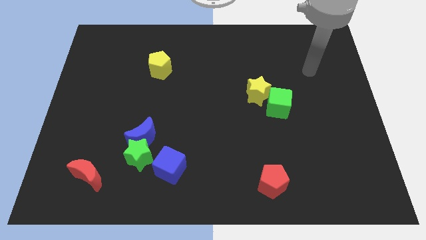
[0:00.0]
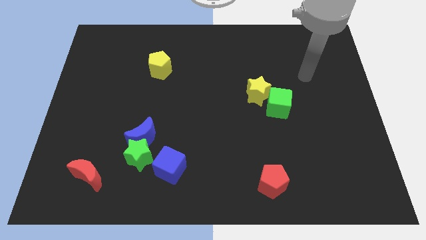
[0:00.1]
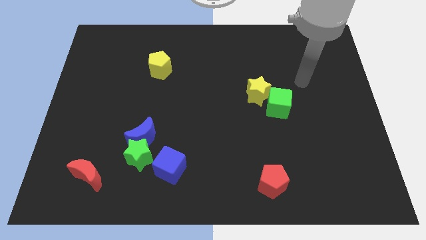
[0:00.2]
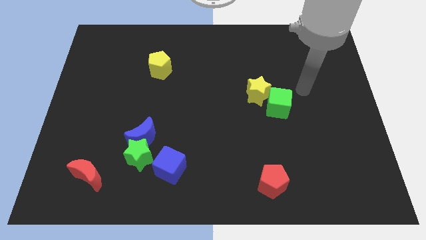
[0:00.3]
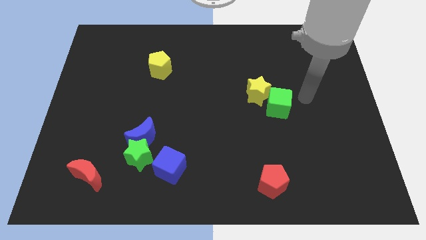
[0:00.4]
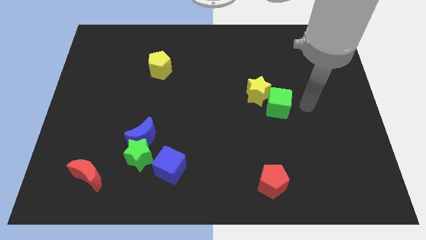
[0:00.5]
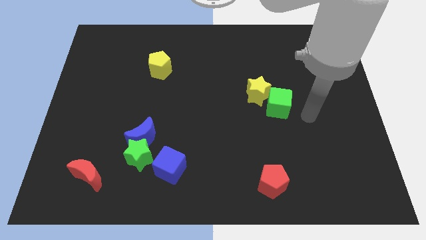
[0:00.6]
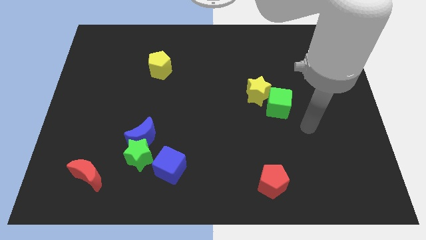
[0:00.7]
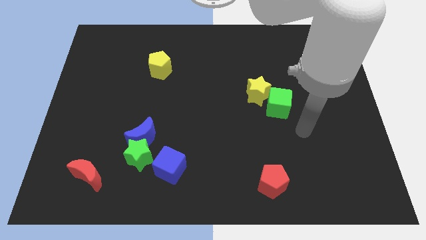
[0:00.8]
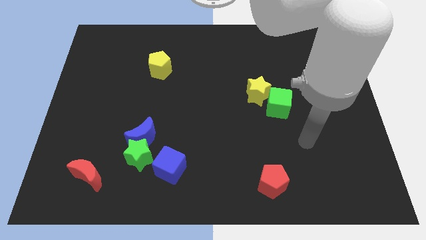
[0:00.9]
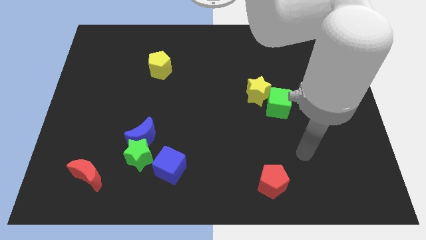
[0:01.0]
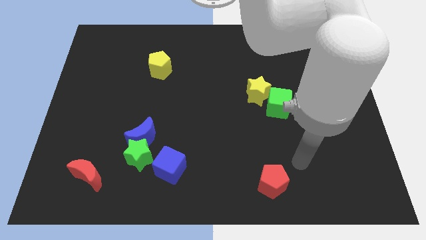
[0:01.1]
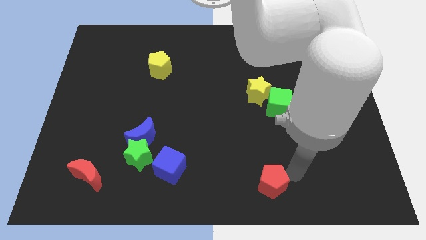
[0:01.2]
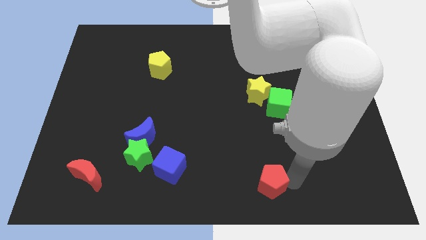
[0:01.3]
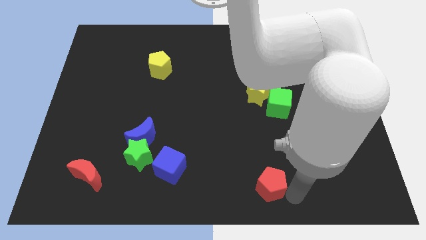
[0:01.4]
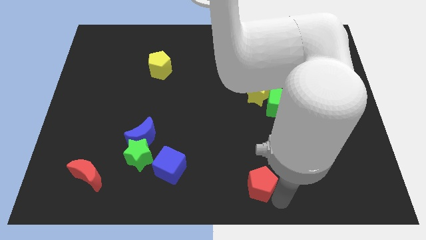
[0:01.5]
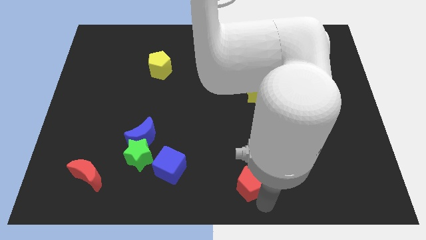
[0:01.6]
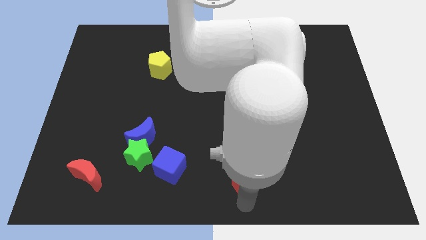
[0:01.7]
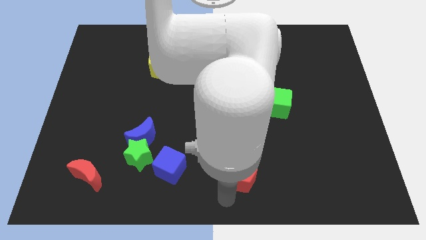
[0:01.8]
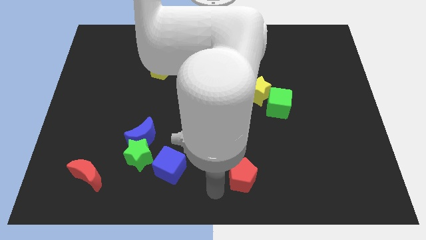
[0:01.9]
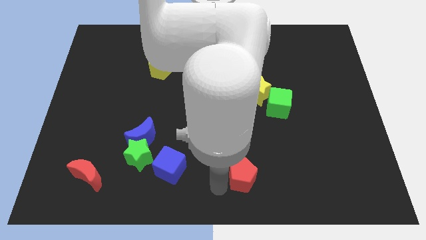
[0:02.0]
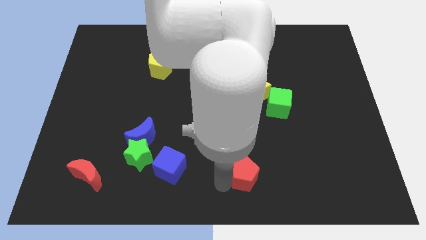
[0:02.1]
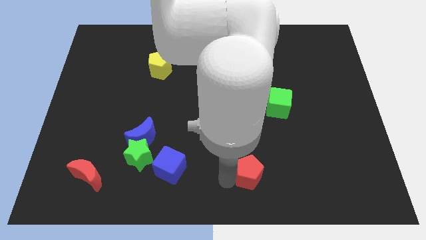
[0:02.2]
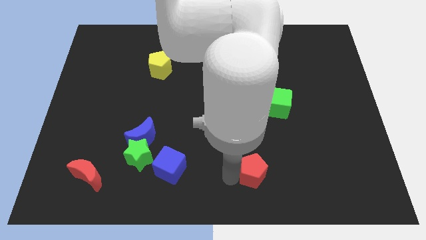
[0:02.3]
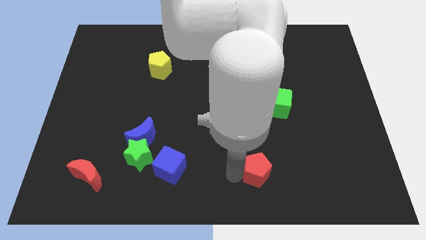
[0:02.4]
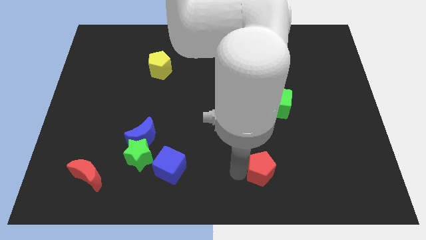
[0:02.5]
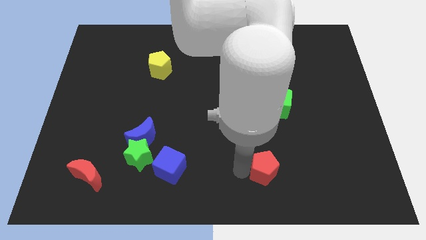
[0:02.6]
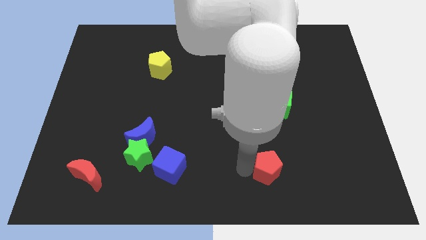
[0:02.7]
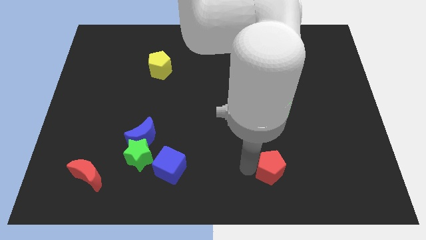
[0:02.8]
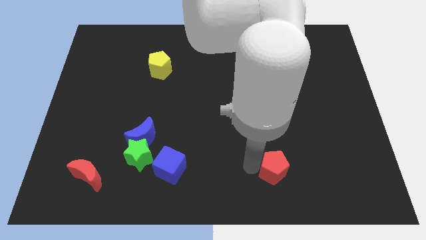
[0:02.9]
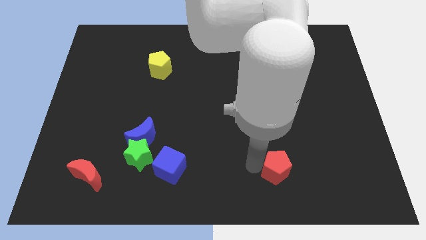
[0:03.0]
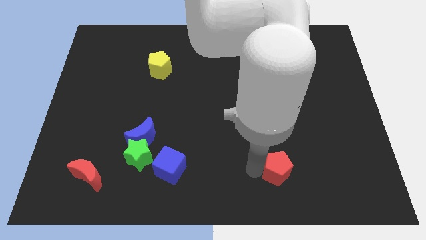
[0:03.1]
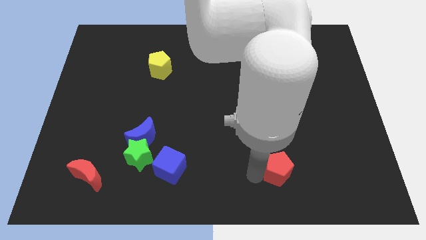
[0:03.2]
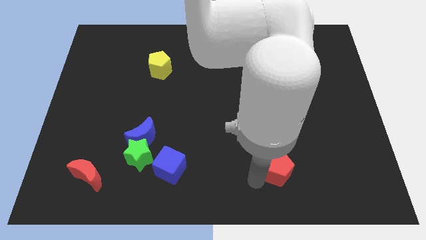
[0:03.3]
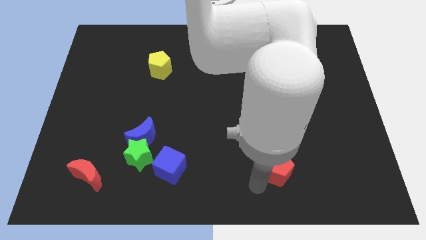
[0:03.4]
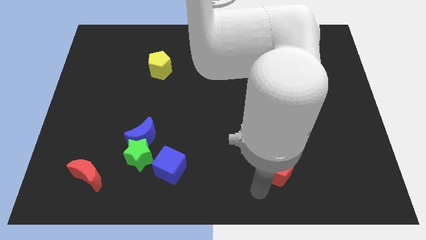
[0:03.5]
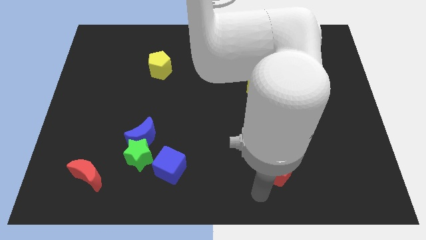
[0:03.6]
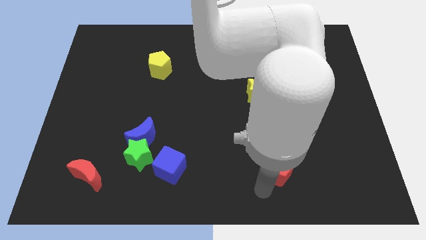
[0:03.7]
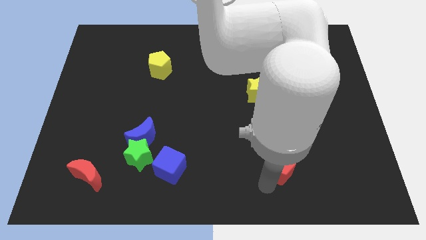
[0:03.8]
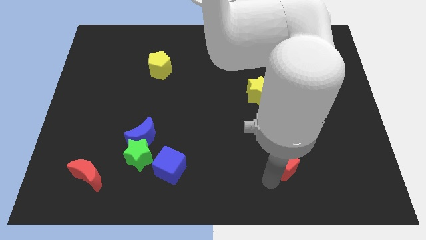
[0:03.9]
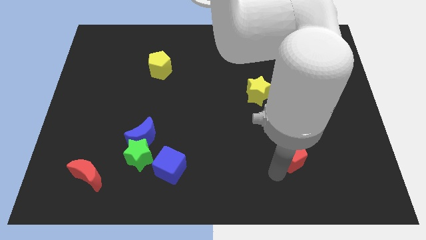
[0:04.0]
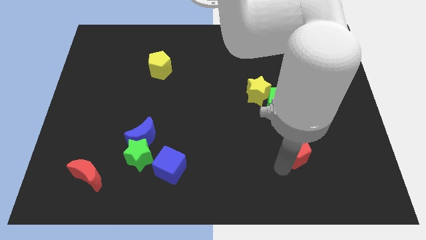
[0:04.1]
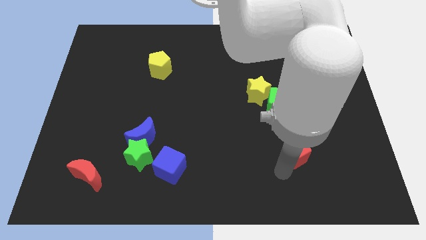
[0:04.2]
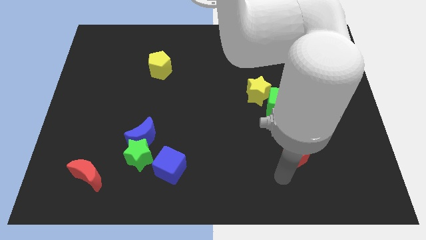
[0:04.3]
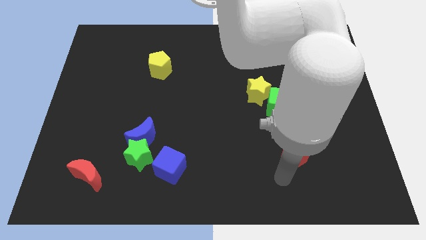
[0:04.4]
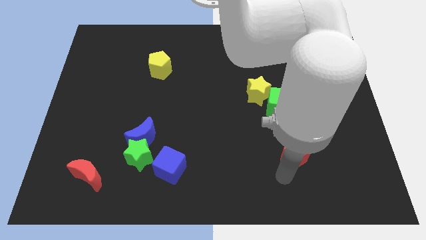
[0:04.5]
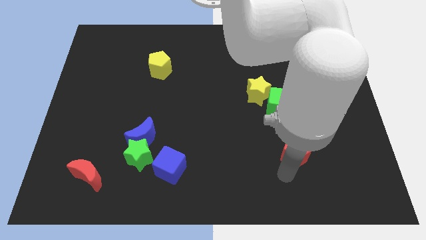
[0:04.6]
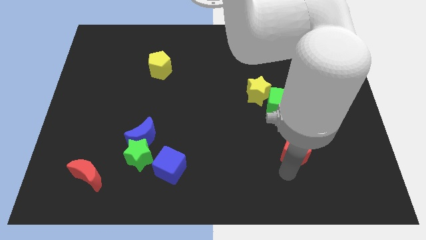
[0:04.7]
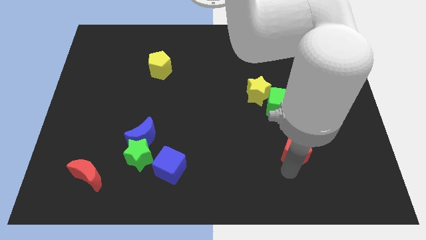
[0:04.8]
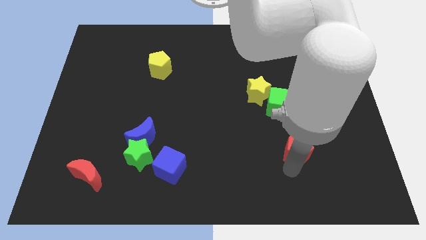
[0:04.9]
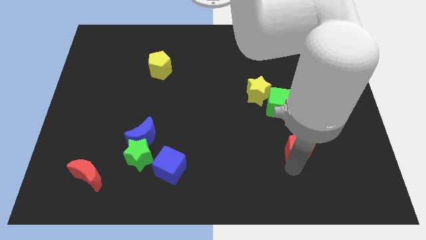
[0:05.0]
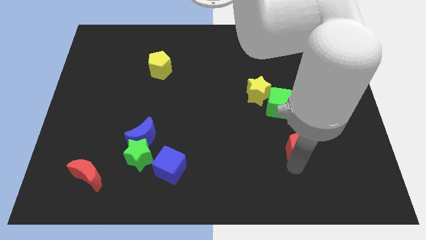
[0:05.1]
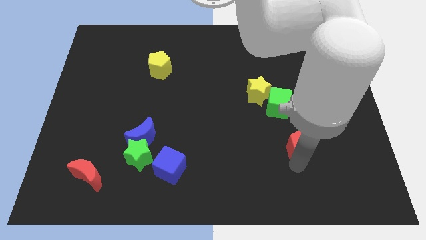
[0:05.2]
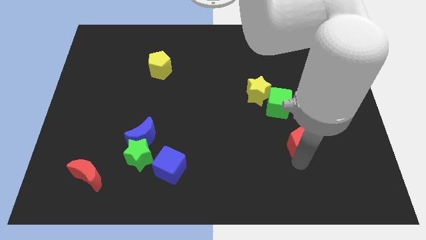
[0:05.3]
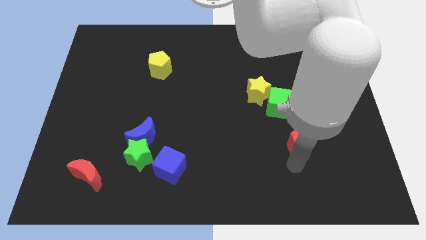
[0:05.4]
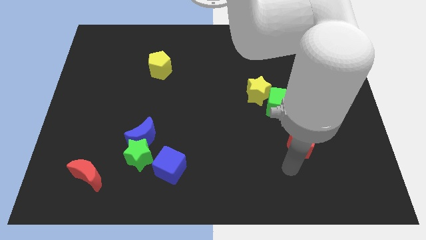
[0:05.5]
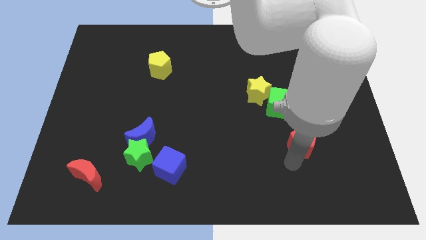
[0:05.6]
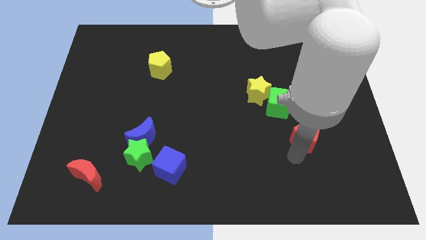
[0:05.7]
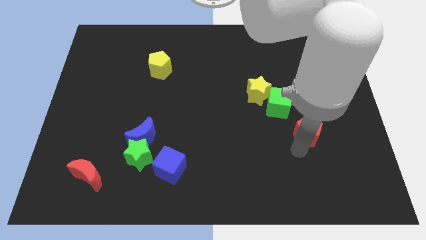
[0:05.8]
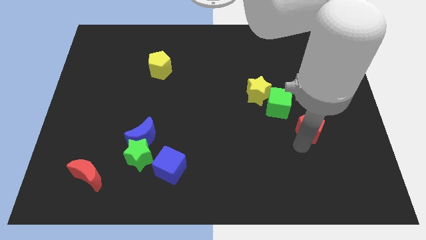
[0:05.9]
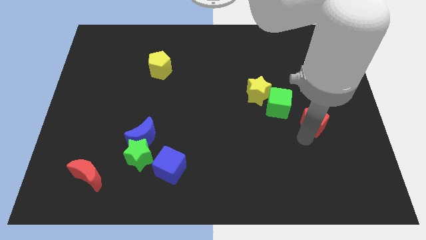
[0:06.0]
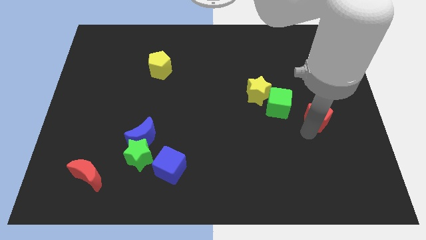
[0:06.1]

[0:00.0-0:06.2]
push the red pentagon to the right of the green cube

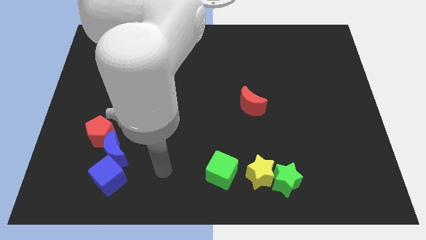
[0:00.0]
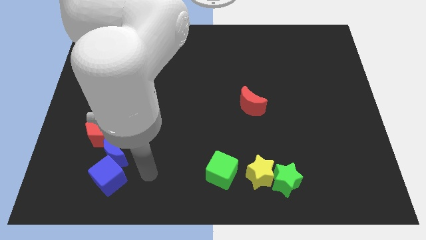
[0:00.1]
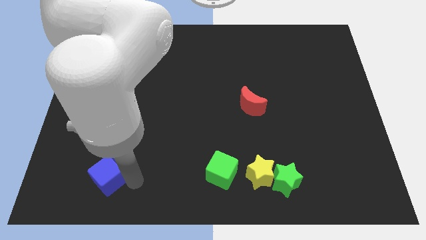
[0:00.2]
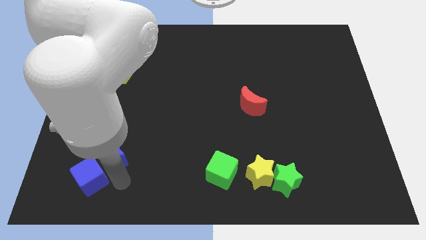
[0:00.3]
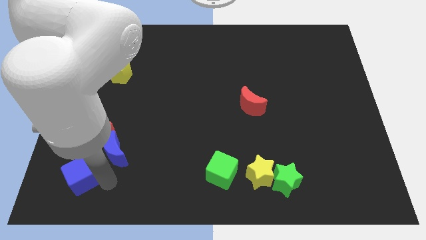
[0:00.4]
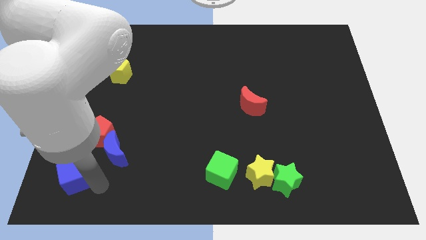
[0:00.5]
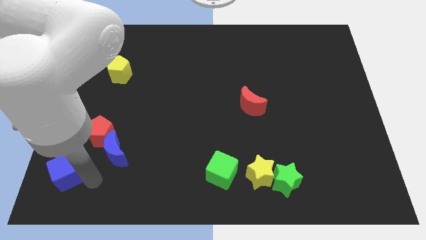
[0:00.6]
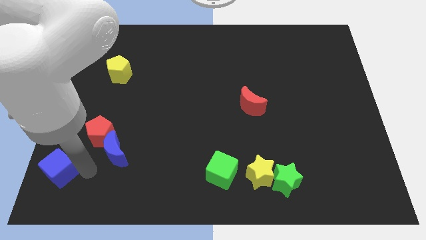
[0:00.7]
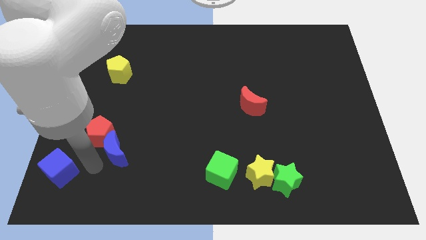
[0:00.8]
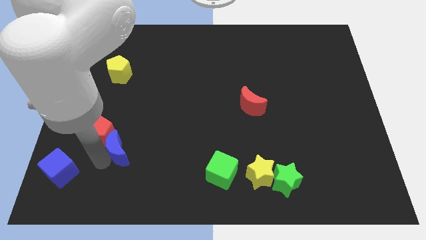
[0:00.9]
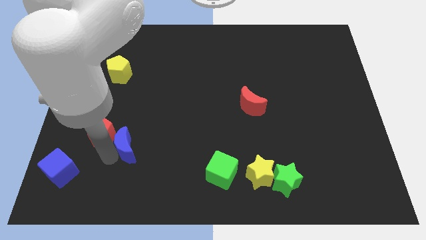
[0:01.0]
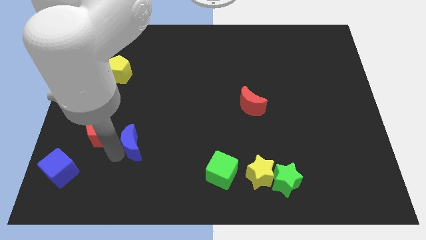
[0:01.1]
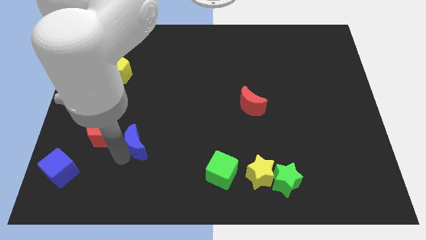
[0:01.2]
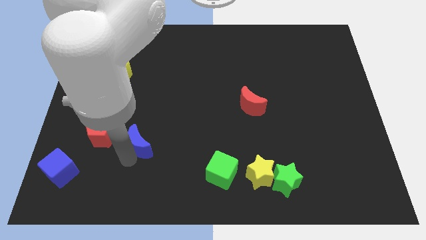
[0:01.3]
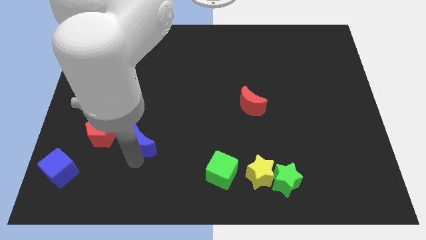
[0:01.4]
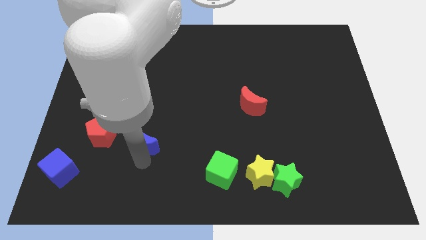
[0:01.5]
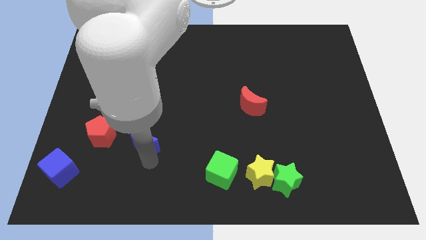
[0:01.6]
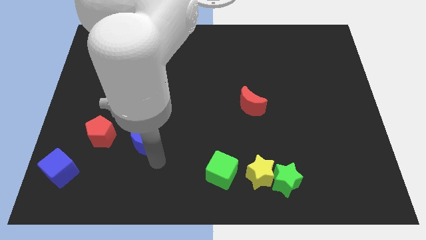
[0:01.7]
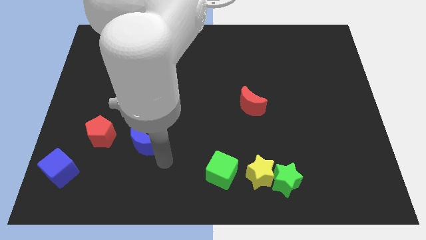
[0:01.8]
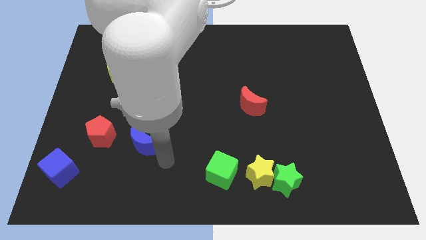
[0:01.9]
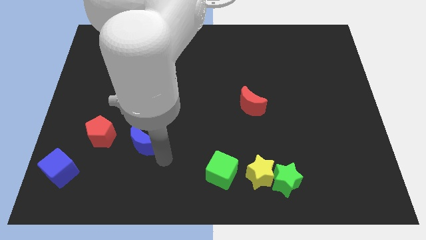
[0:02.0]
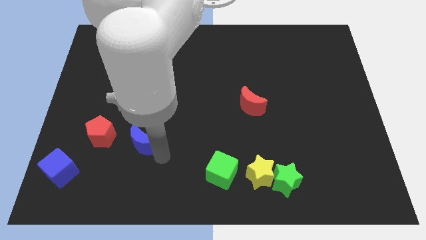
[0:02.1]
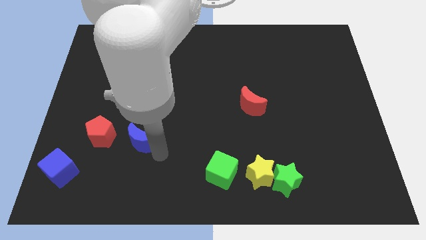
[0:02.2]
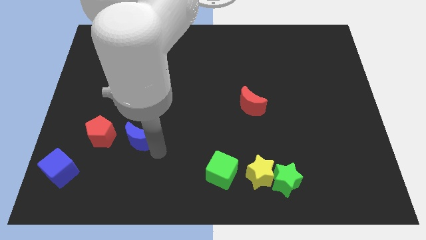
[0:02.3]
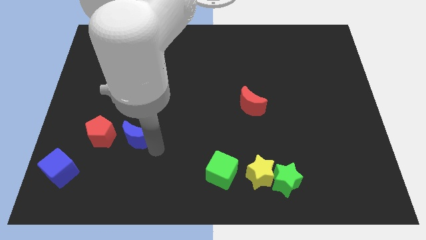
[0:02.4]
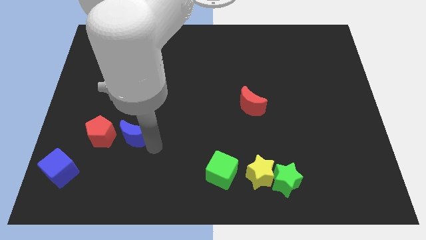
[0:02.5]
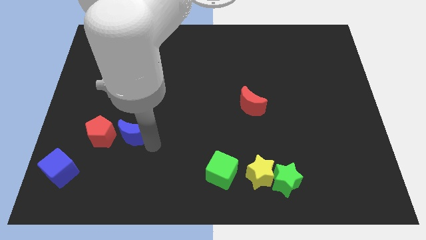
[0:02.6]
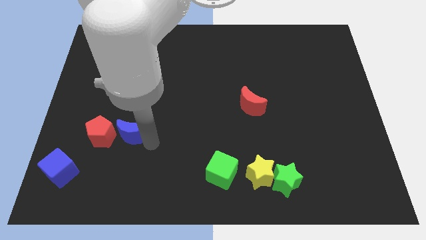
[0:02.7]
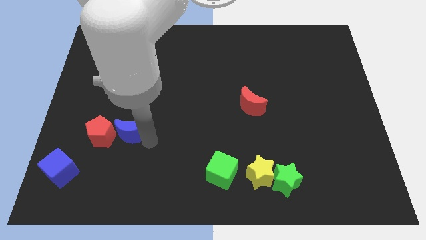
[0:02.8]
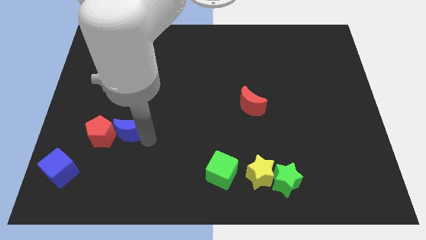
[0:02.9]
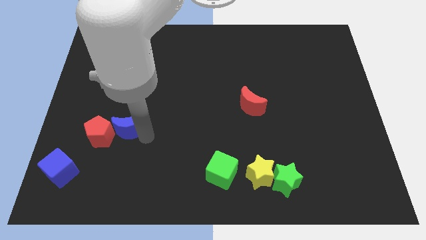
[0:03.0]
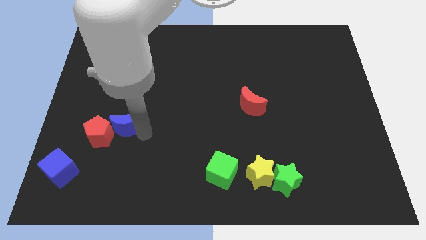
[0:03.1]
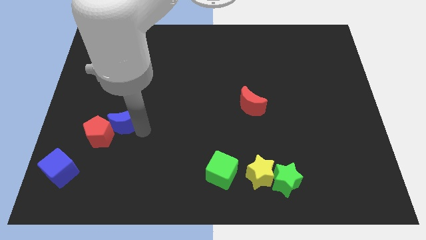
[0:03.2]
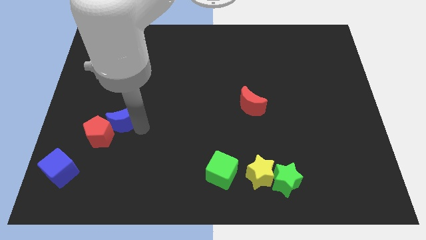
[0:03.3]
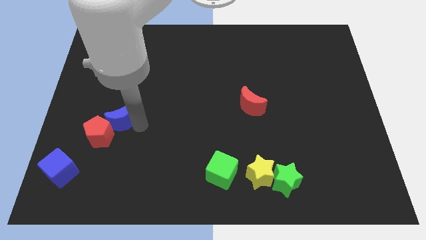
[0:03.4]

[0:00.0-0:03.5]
move the blue moon below the yellow pentagon
